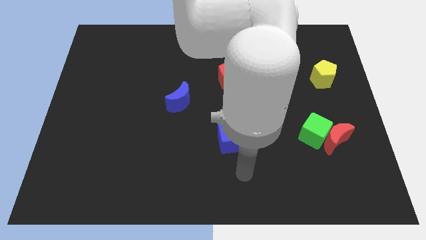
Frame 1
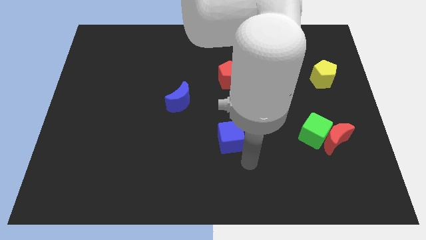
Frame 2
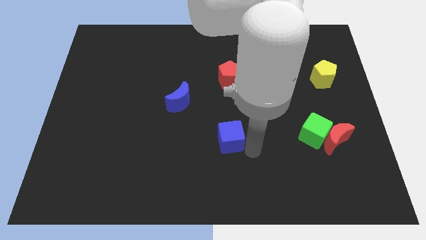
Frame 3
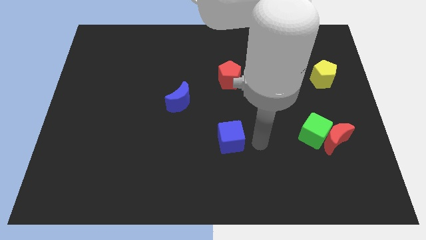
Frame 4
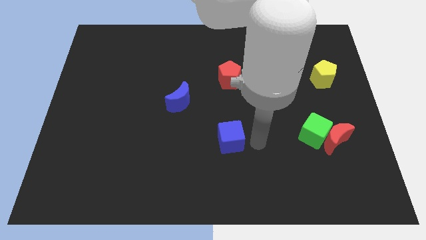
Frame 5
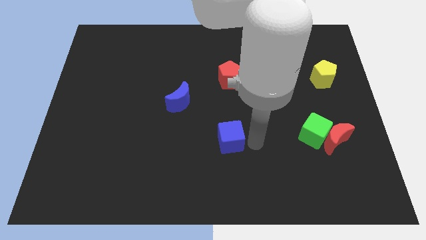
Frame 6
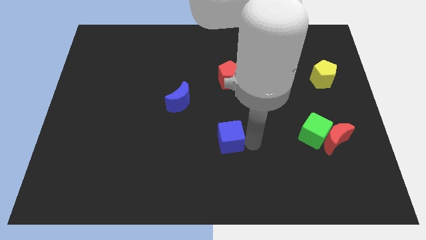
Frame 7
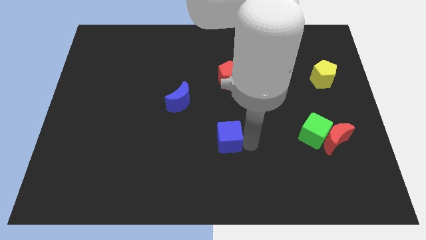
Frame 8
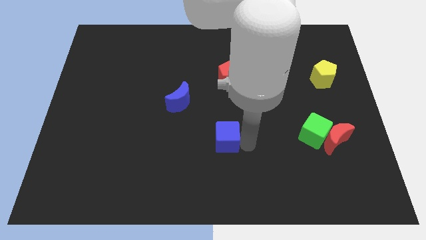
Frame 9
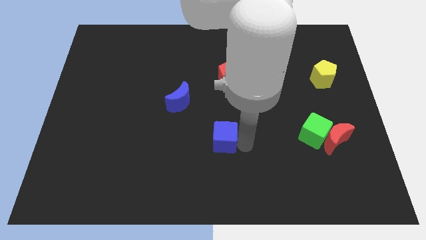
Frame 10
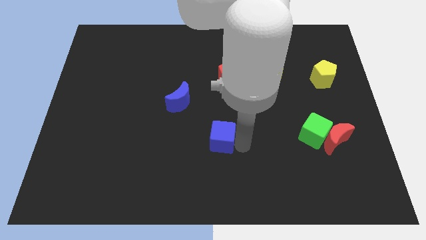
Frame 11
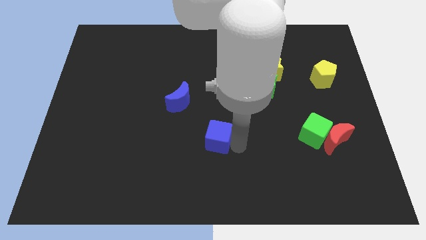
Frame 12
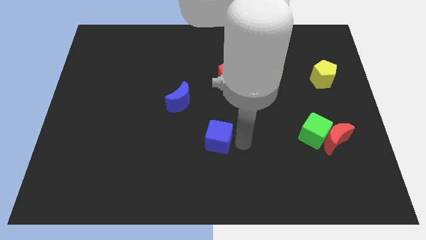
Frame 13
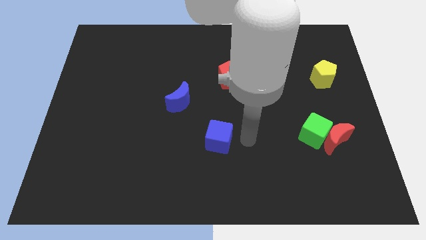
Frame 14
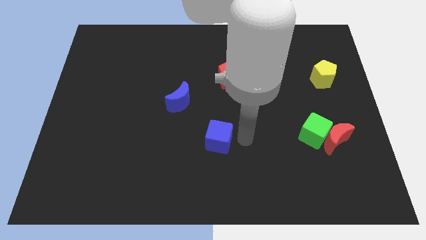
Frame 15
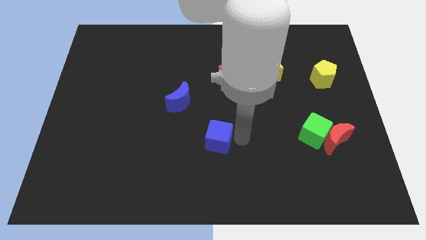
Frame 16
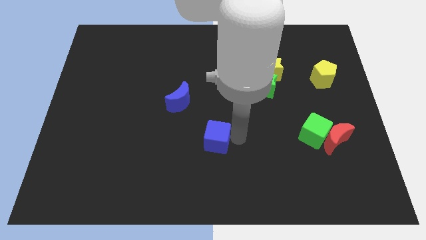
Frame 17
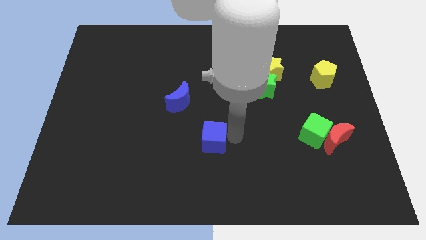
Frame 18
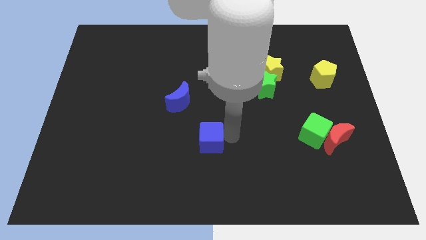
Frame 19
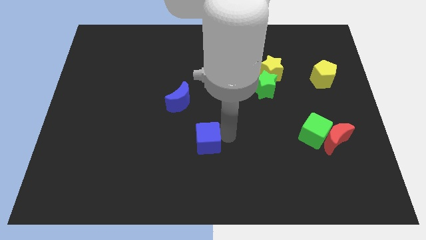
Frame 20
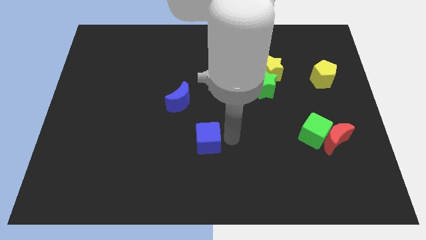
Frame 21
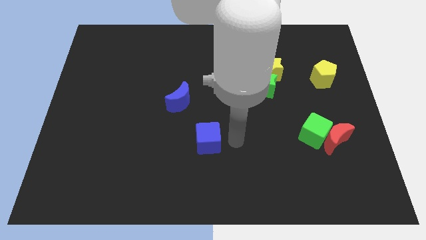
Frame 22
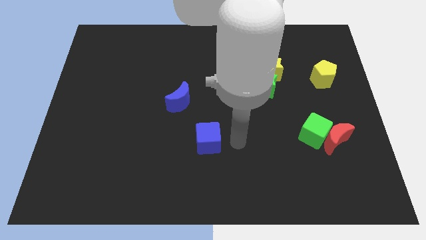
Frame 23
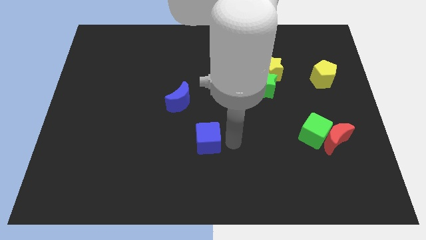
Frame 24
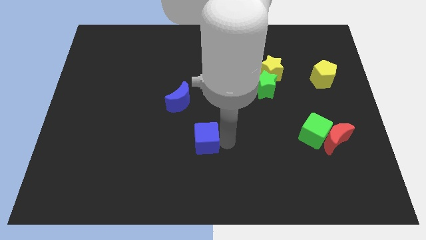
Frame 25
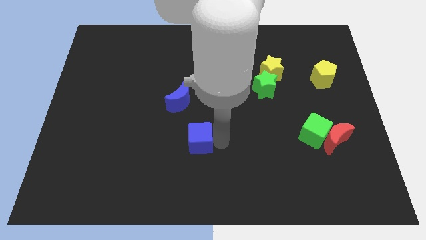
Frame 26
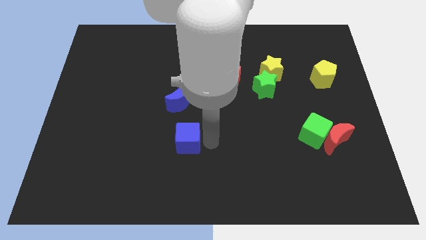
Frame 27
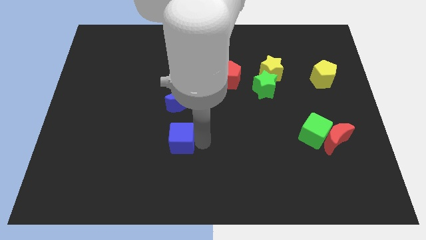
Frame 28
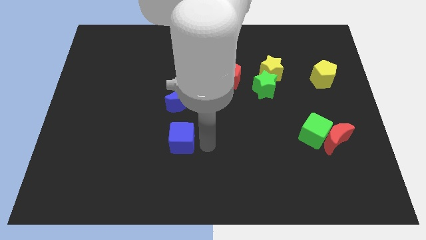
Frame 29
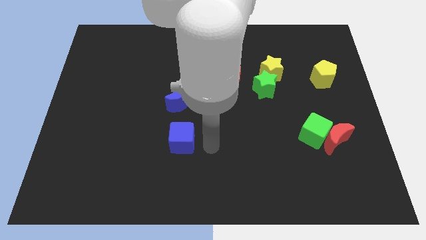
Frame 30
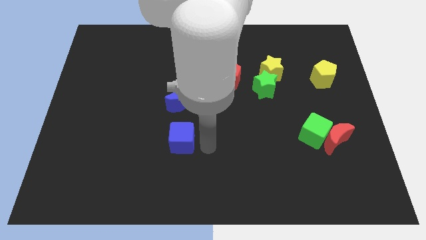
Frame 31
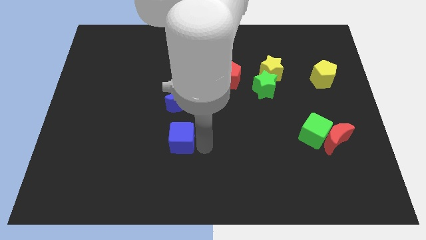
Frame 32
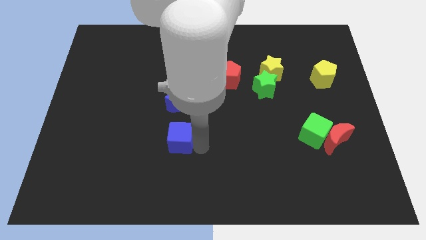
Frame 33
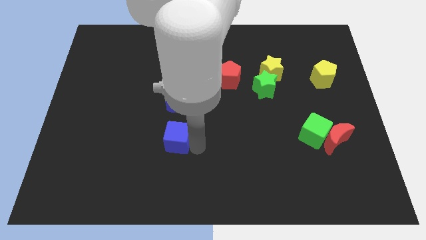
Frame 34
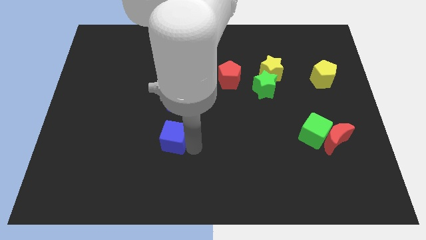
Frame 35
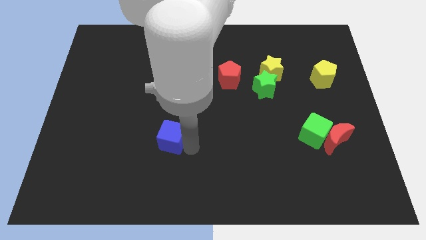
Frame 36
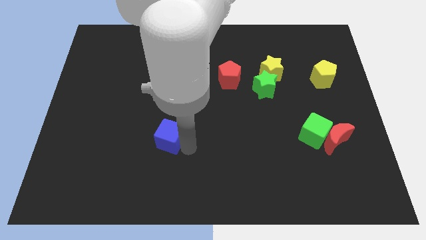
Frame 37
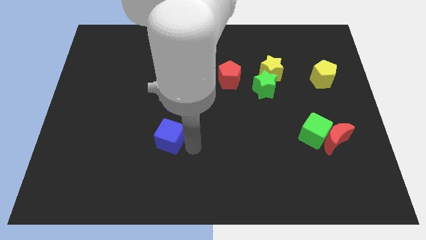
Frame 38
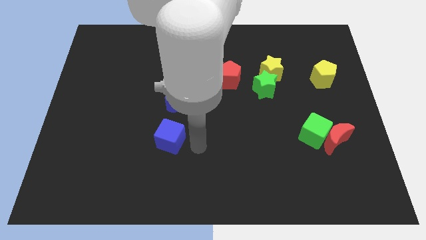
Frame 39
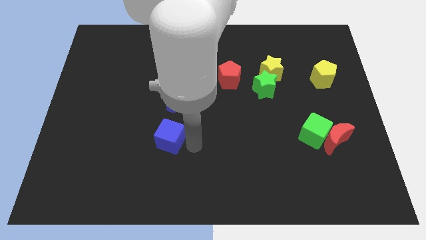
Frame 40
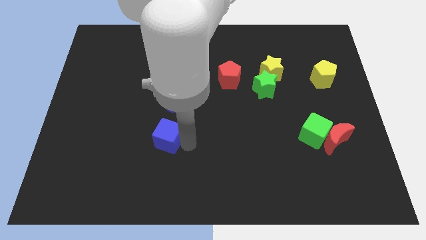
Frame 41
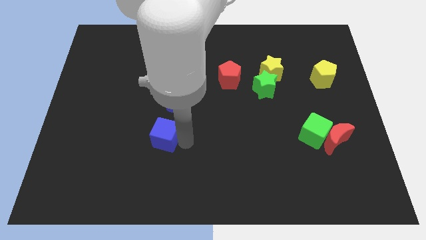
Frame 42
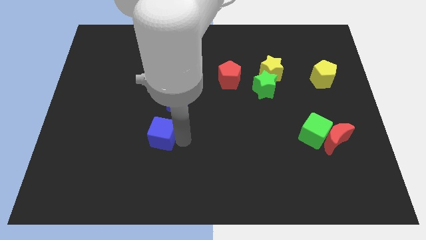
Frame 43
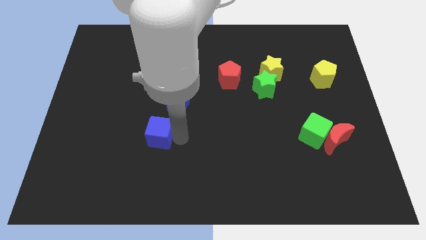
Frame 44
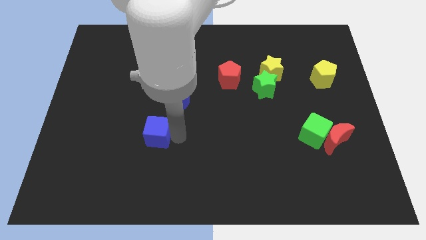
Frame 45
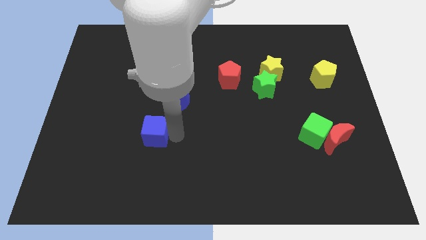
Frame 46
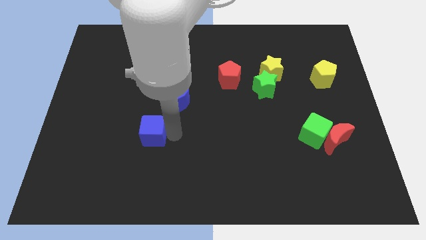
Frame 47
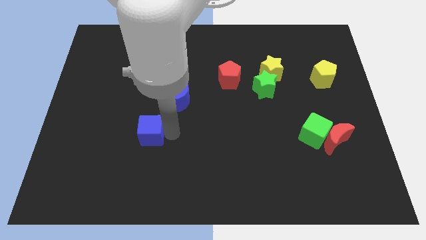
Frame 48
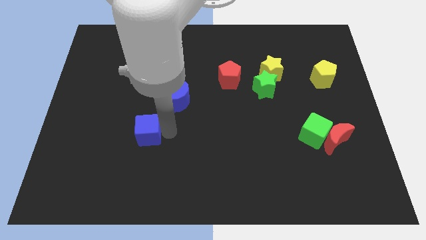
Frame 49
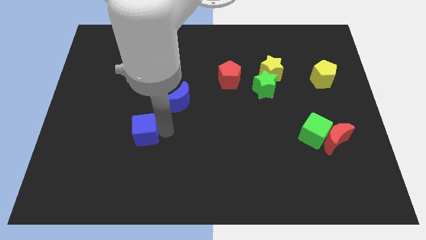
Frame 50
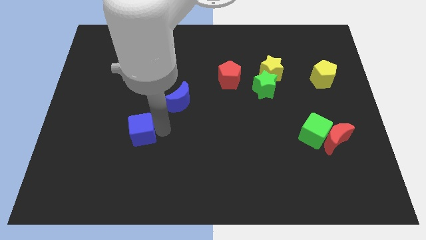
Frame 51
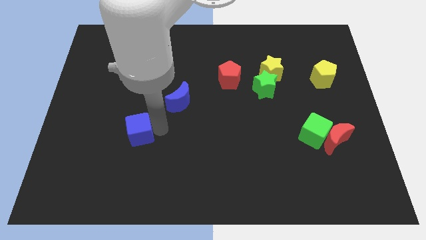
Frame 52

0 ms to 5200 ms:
move the blue cube left

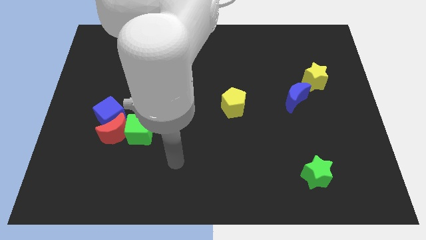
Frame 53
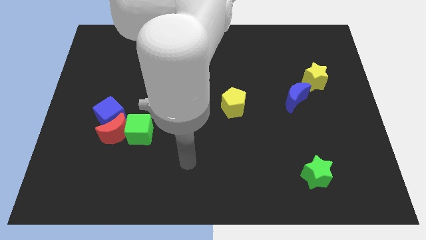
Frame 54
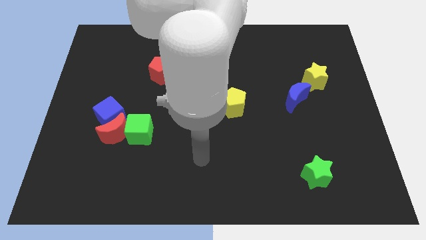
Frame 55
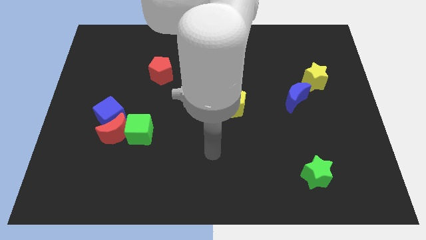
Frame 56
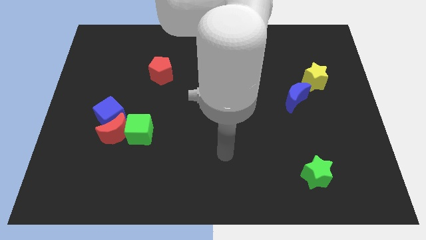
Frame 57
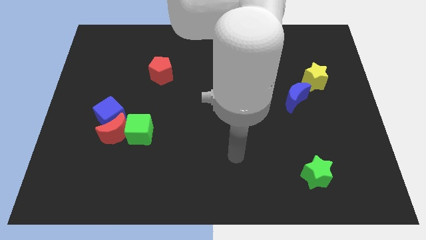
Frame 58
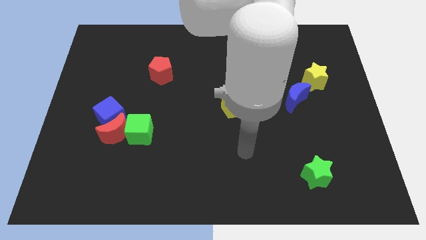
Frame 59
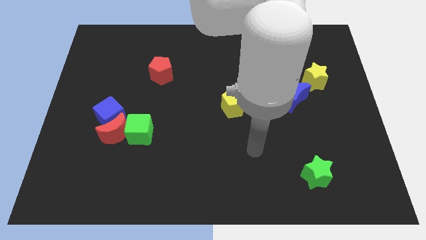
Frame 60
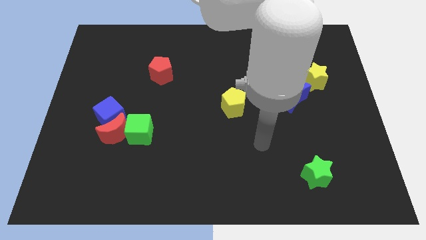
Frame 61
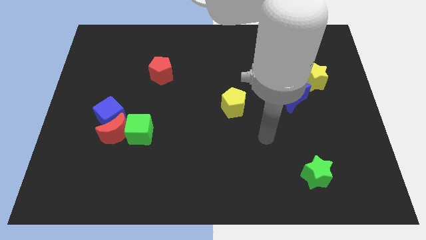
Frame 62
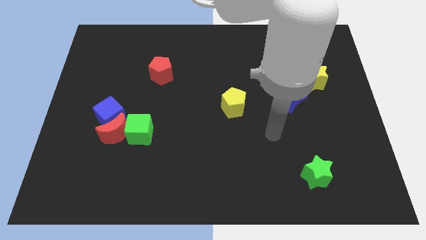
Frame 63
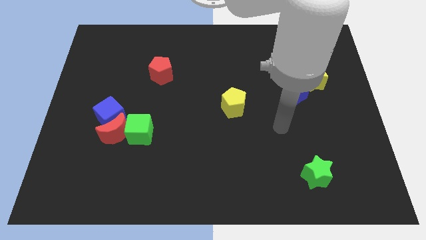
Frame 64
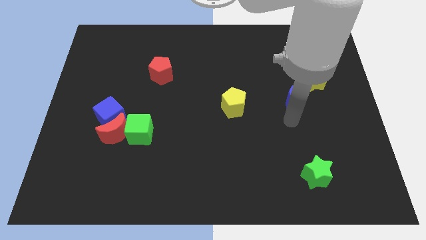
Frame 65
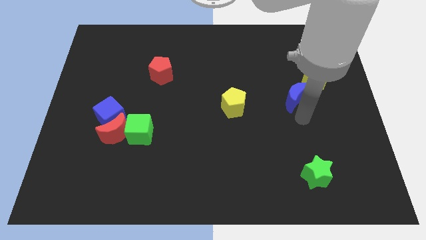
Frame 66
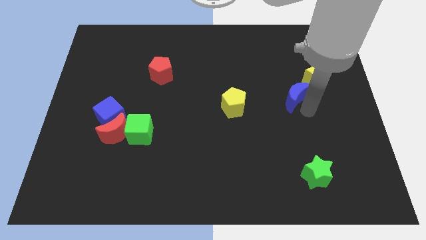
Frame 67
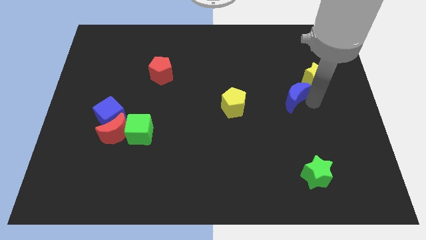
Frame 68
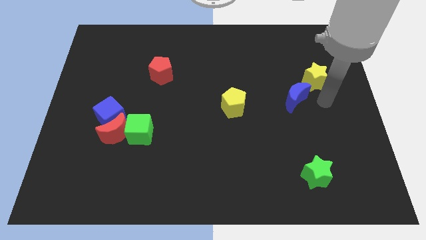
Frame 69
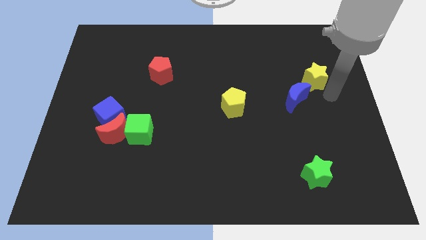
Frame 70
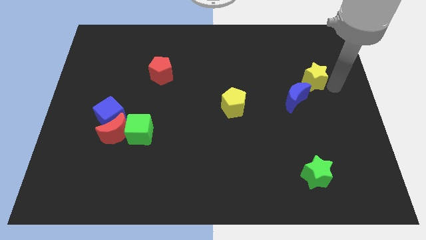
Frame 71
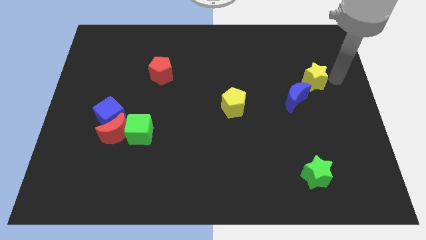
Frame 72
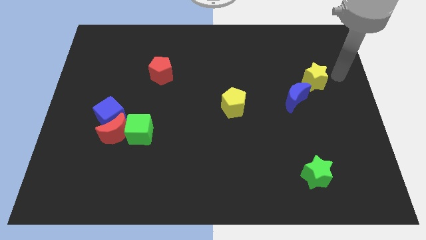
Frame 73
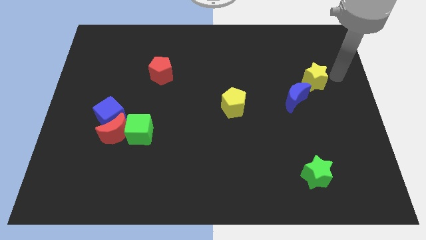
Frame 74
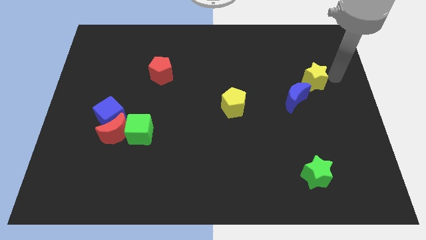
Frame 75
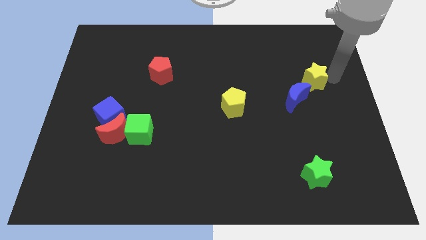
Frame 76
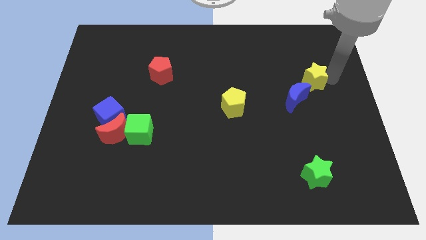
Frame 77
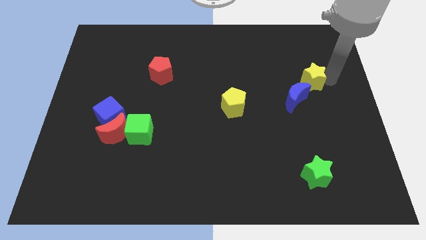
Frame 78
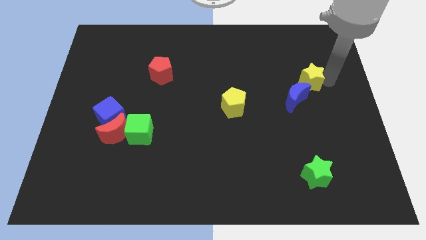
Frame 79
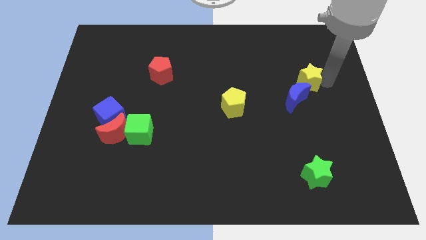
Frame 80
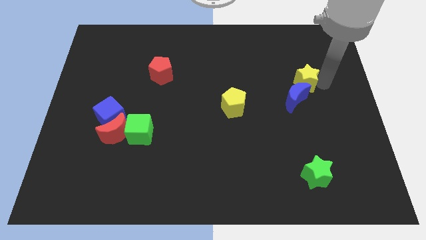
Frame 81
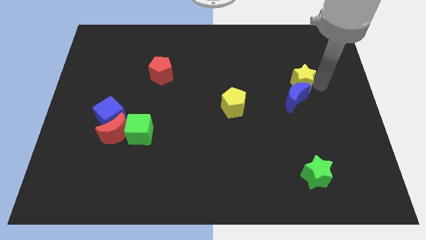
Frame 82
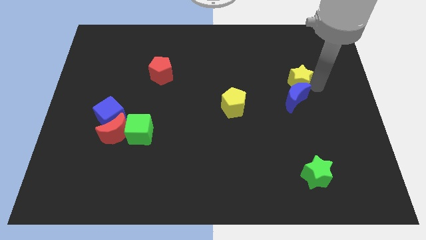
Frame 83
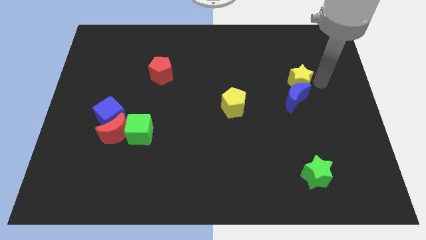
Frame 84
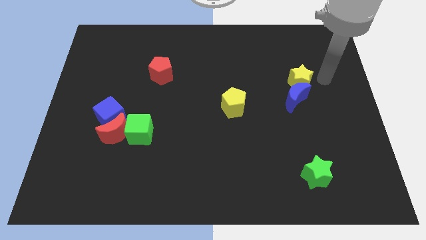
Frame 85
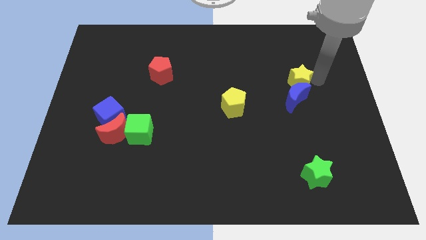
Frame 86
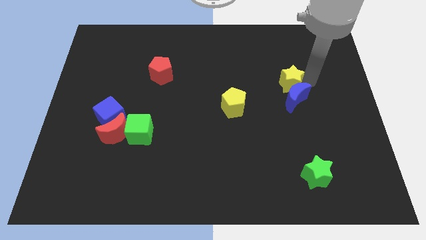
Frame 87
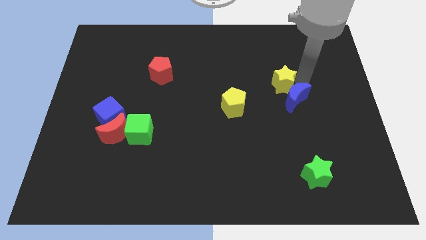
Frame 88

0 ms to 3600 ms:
push the yellow star left slightly
